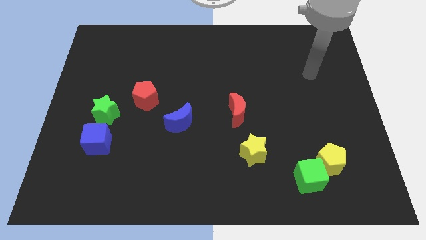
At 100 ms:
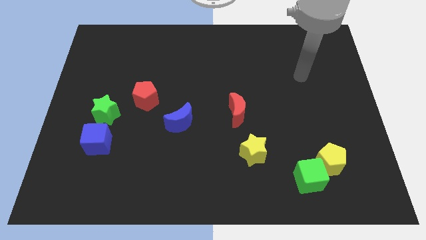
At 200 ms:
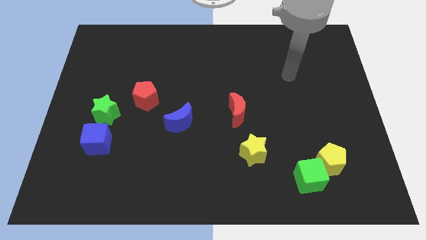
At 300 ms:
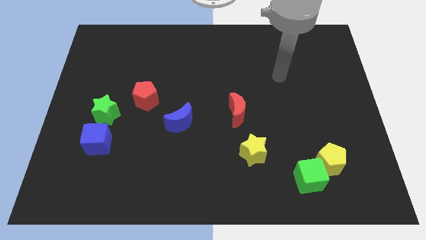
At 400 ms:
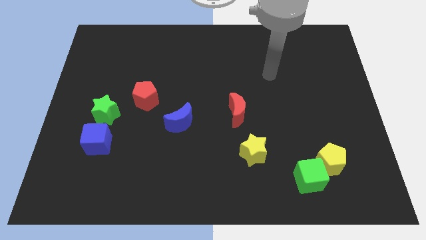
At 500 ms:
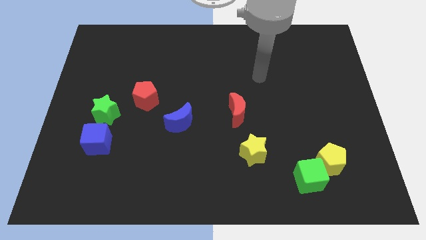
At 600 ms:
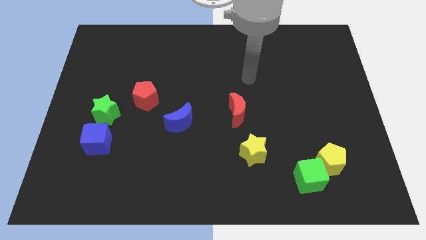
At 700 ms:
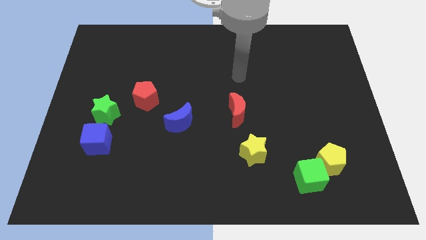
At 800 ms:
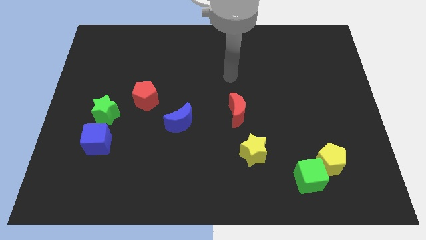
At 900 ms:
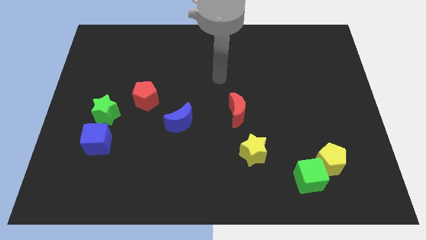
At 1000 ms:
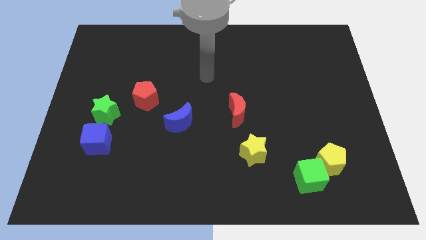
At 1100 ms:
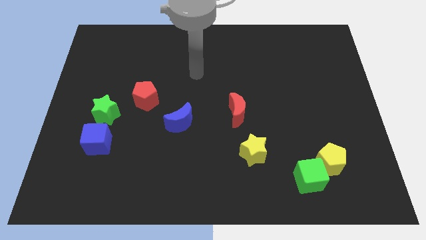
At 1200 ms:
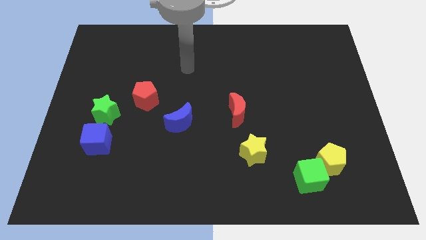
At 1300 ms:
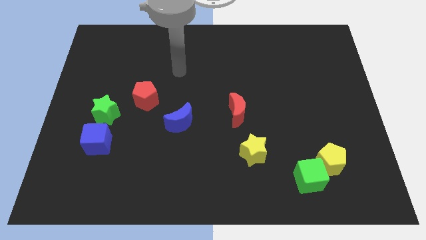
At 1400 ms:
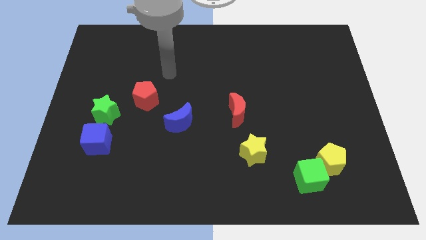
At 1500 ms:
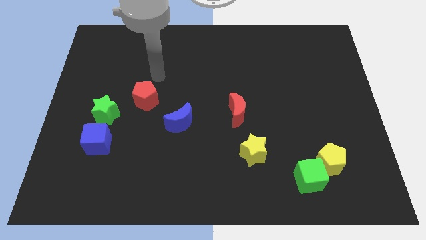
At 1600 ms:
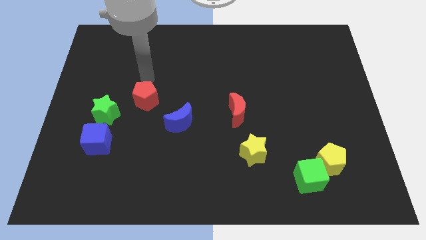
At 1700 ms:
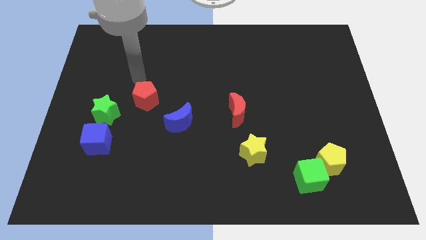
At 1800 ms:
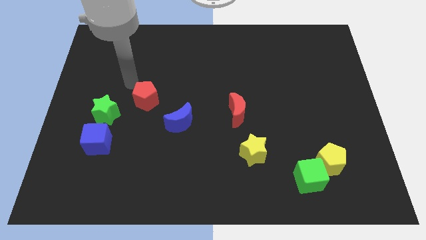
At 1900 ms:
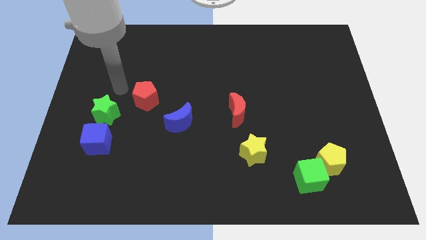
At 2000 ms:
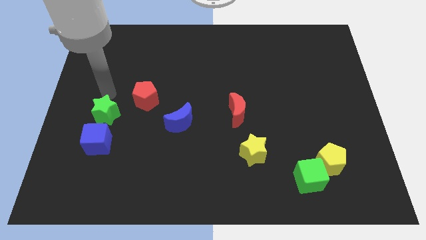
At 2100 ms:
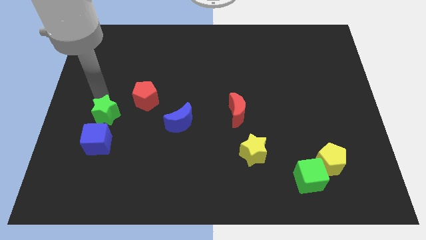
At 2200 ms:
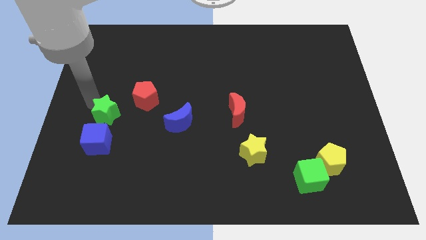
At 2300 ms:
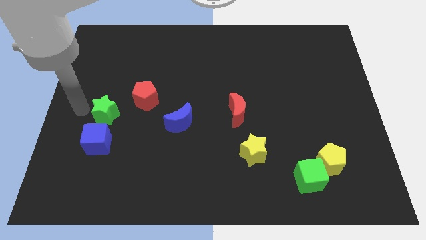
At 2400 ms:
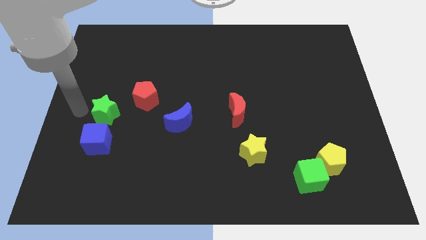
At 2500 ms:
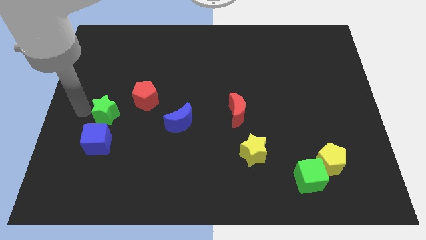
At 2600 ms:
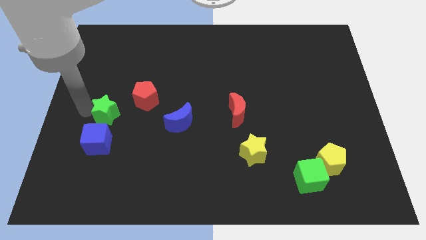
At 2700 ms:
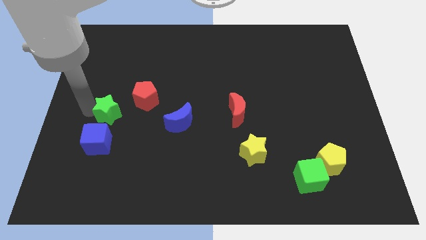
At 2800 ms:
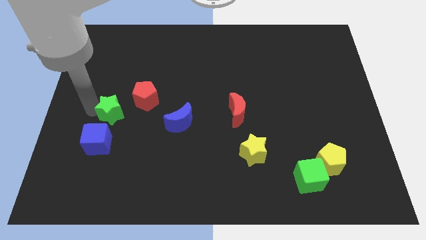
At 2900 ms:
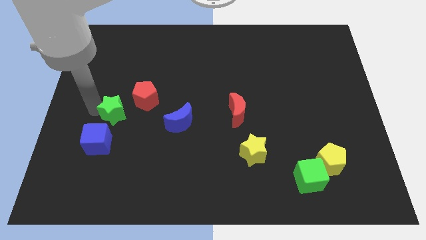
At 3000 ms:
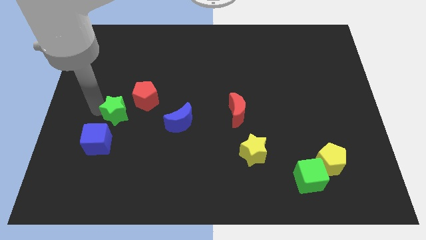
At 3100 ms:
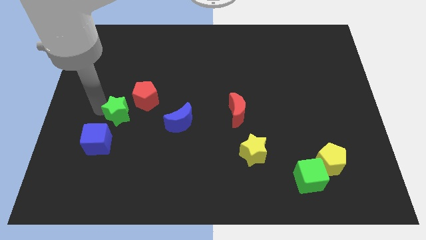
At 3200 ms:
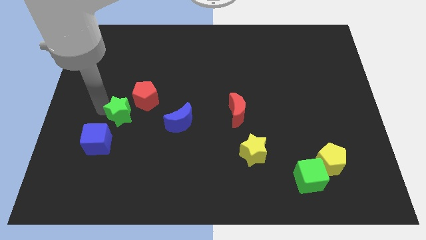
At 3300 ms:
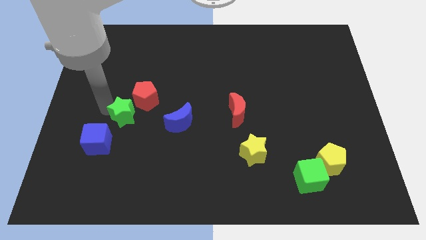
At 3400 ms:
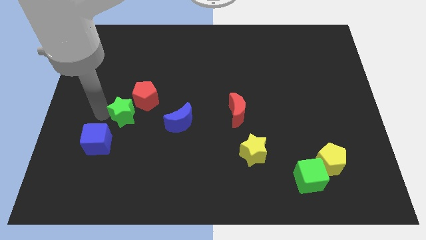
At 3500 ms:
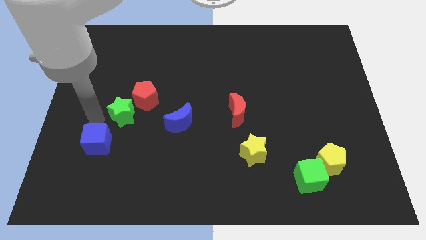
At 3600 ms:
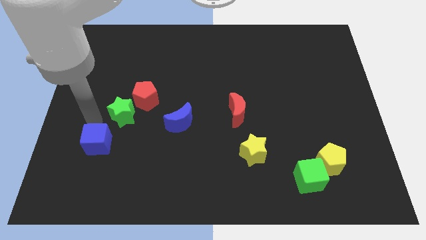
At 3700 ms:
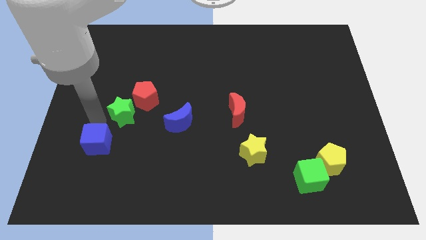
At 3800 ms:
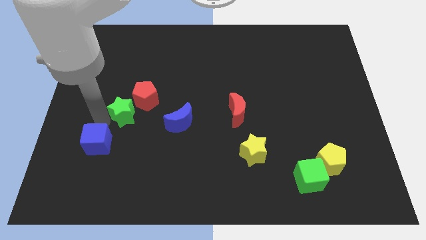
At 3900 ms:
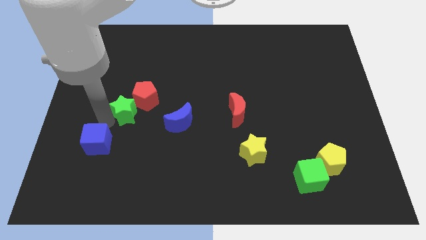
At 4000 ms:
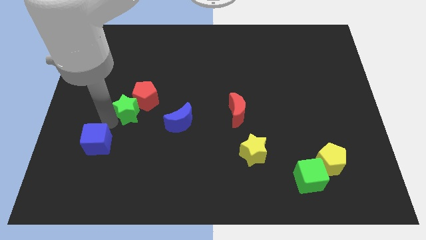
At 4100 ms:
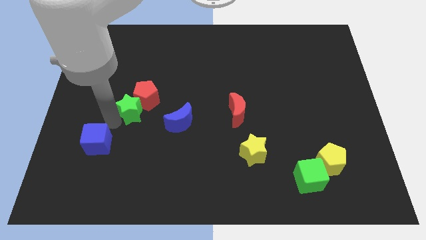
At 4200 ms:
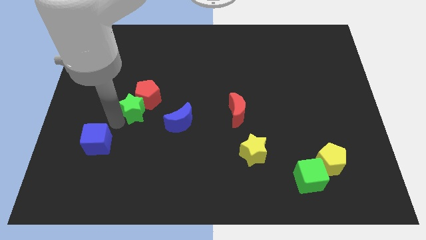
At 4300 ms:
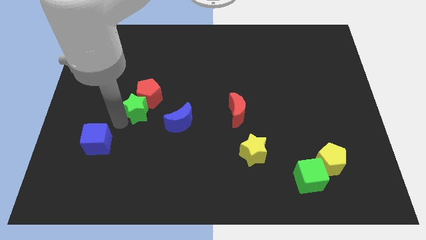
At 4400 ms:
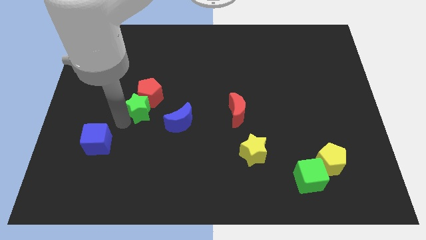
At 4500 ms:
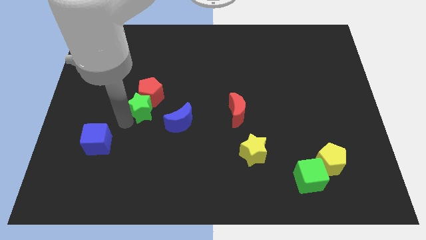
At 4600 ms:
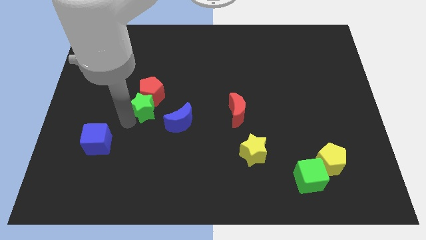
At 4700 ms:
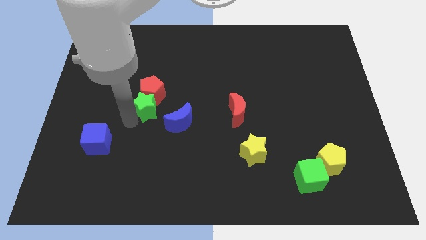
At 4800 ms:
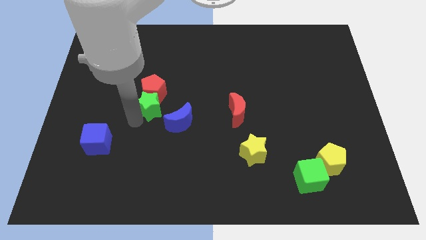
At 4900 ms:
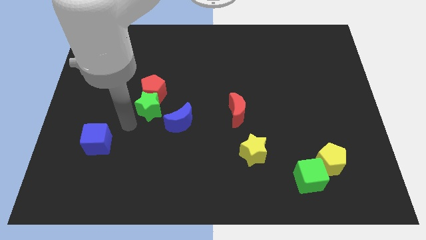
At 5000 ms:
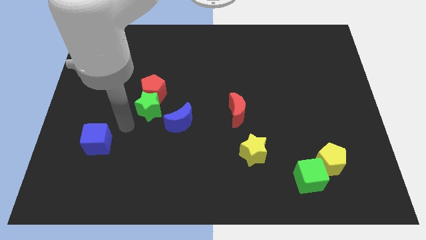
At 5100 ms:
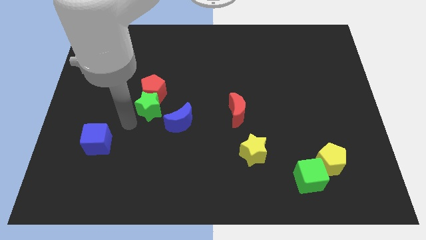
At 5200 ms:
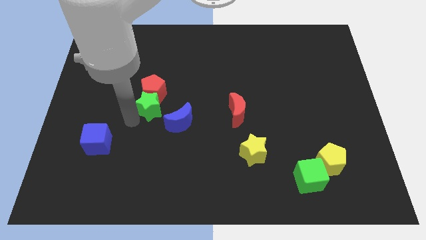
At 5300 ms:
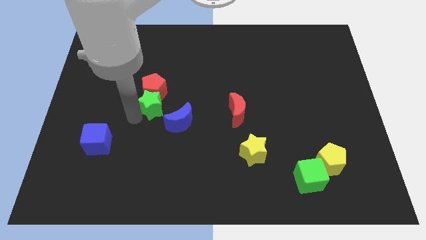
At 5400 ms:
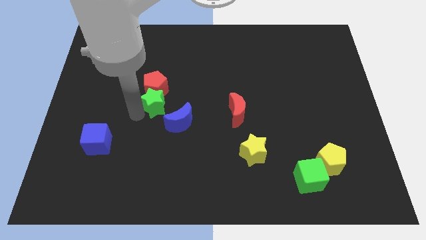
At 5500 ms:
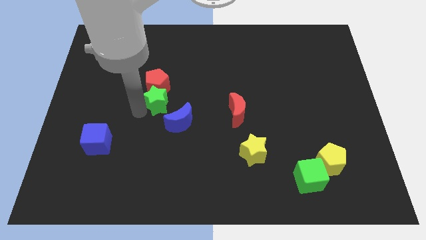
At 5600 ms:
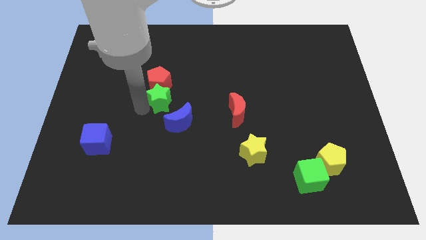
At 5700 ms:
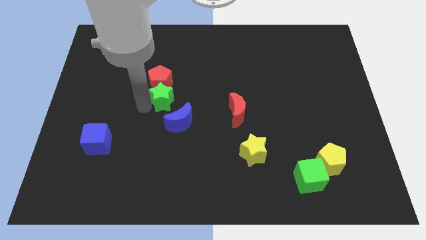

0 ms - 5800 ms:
push the green star to the top side of the blue moon

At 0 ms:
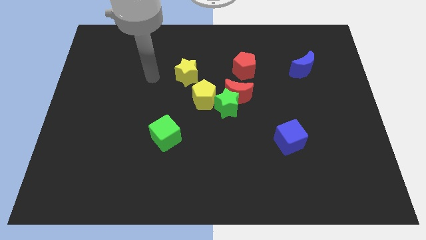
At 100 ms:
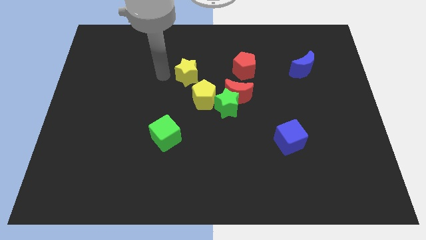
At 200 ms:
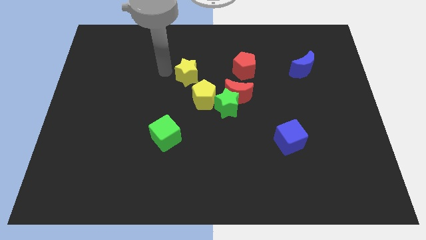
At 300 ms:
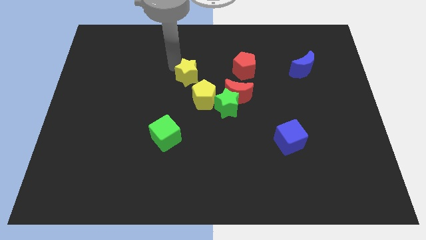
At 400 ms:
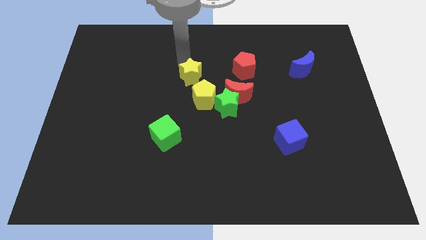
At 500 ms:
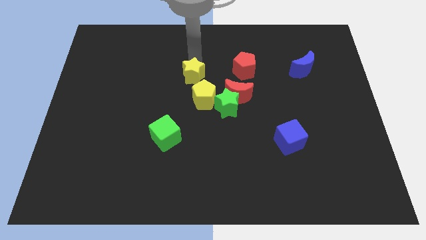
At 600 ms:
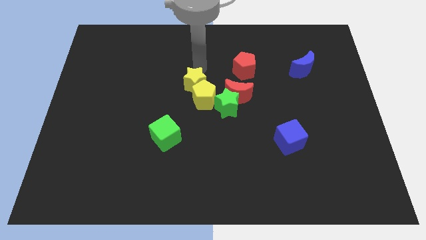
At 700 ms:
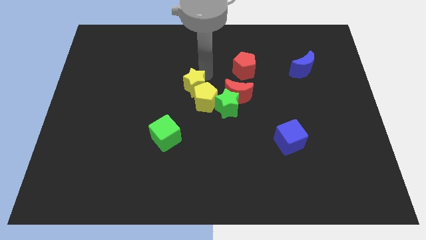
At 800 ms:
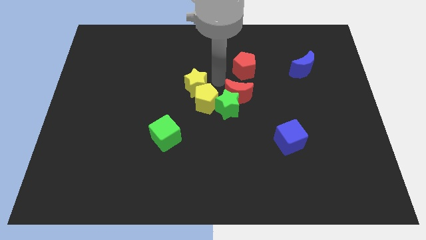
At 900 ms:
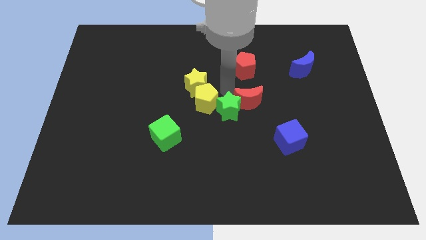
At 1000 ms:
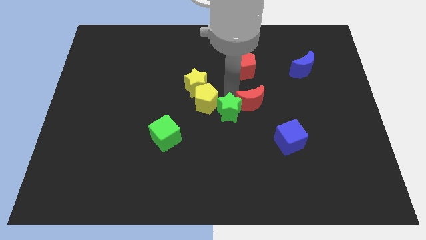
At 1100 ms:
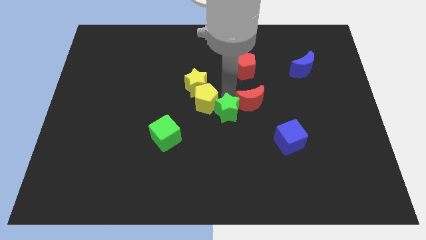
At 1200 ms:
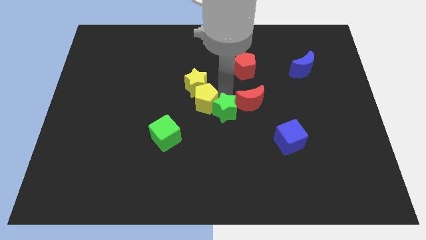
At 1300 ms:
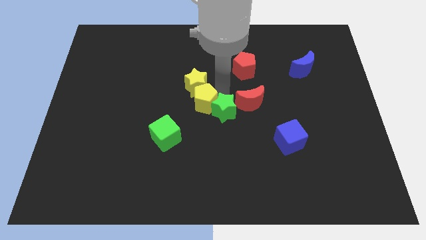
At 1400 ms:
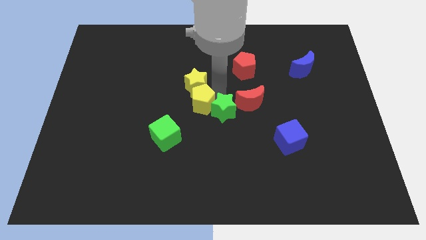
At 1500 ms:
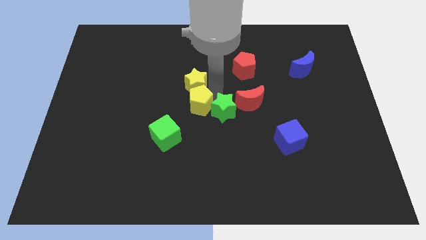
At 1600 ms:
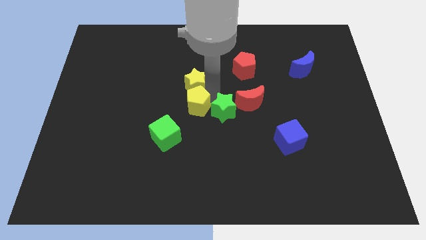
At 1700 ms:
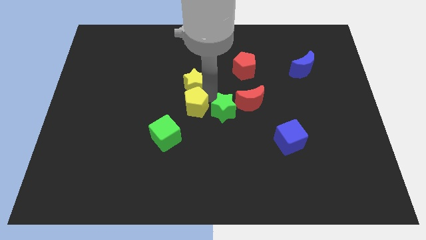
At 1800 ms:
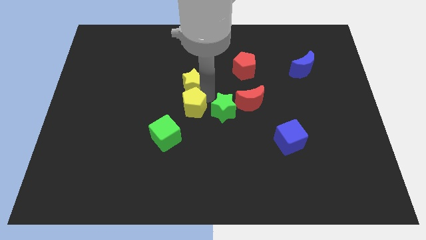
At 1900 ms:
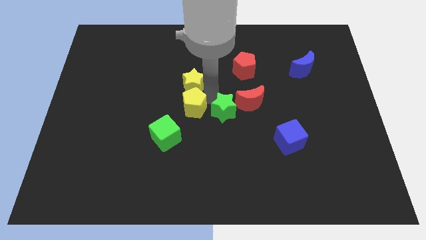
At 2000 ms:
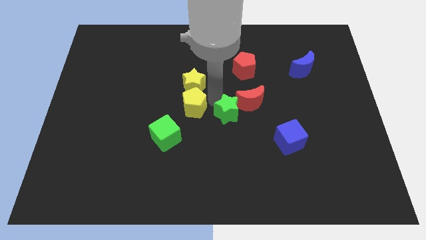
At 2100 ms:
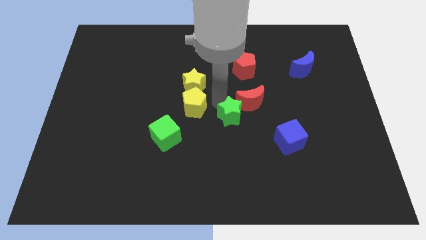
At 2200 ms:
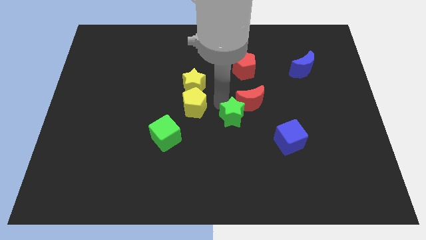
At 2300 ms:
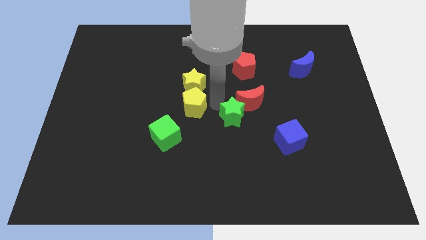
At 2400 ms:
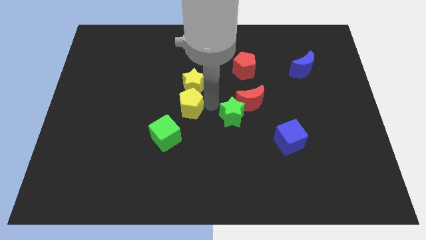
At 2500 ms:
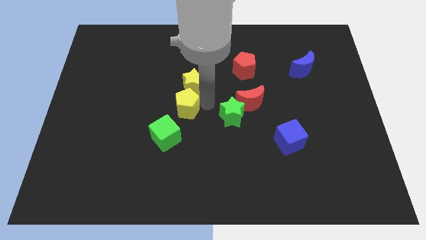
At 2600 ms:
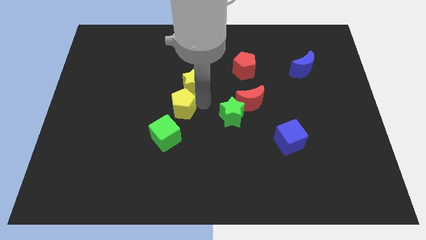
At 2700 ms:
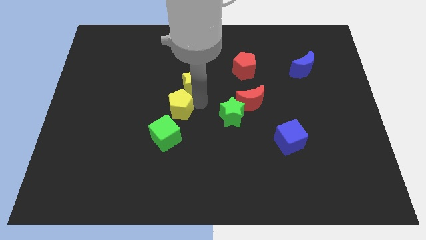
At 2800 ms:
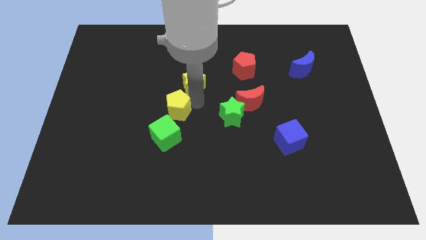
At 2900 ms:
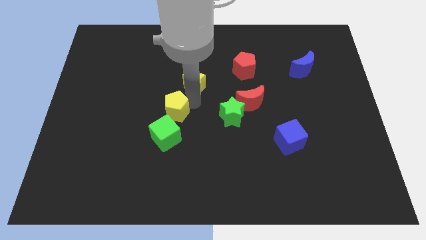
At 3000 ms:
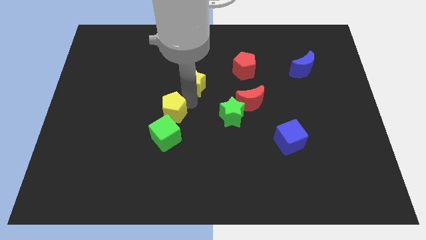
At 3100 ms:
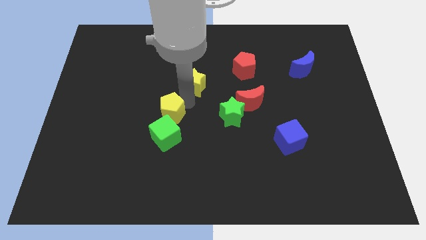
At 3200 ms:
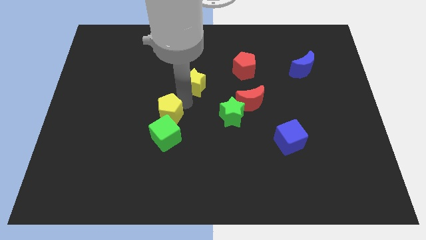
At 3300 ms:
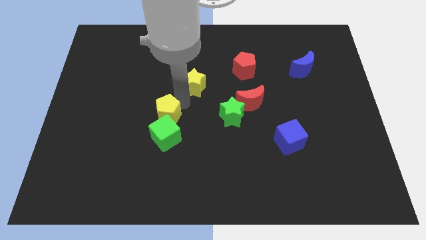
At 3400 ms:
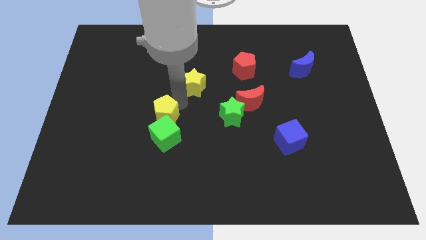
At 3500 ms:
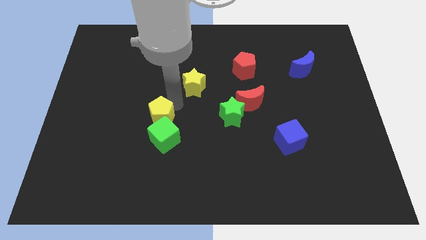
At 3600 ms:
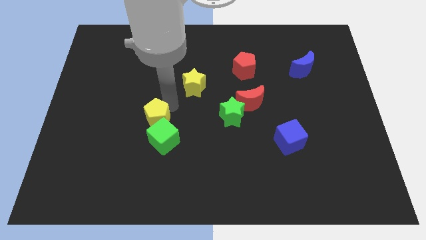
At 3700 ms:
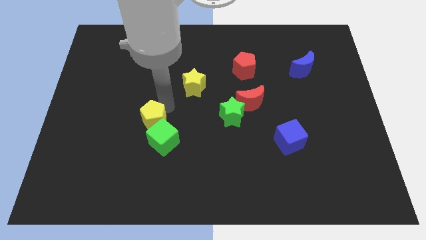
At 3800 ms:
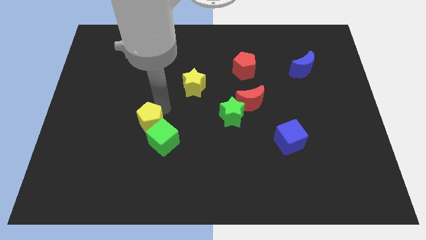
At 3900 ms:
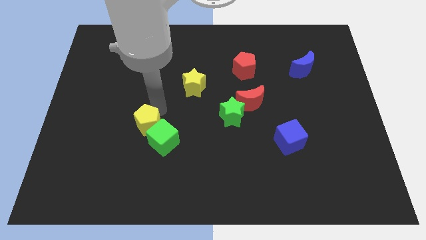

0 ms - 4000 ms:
slide the yellow pentagon to the left of the green cube
